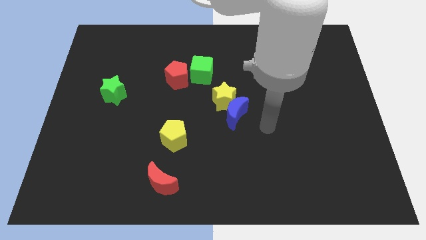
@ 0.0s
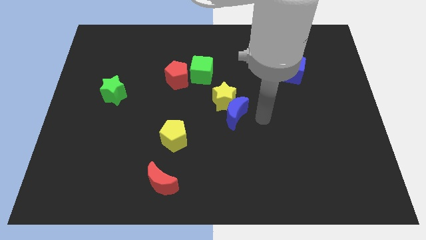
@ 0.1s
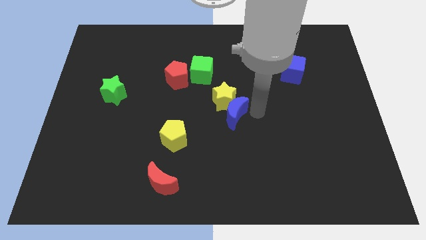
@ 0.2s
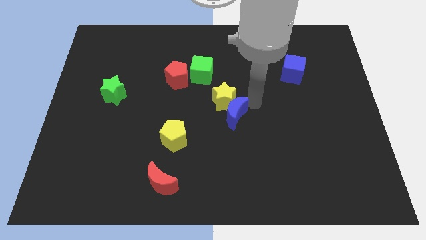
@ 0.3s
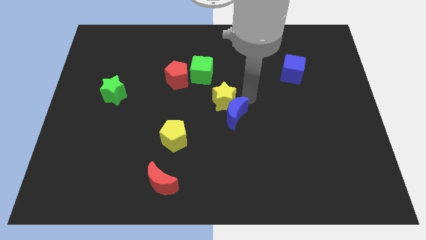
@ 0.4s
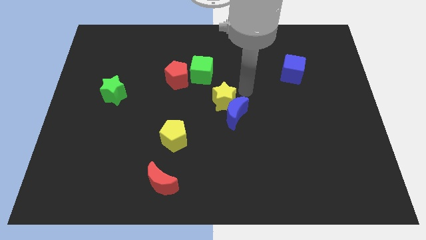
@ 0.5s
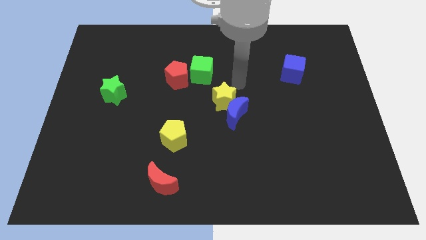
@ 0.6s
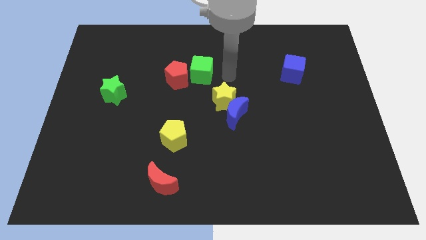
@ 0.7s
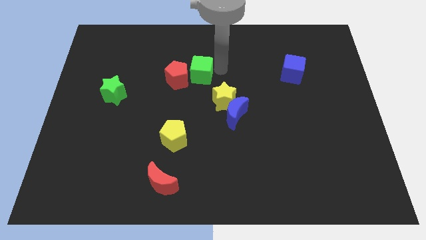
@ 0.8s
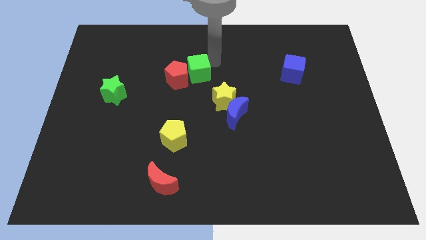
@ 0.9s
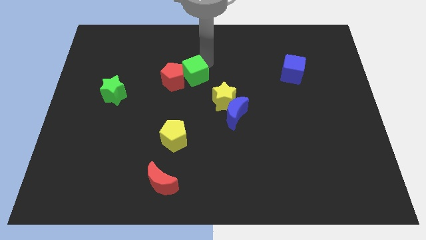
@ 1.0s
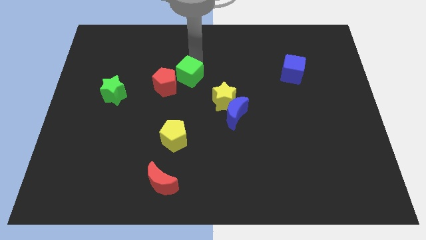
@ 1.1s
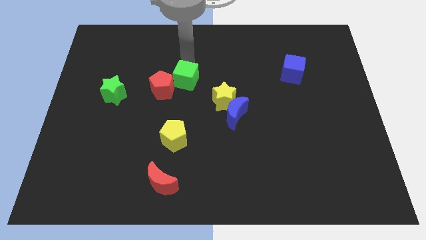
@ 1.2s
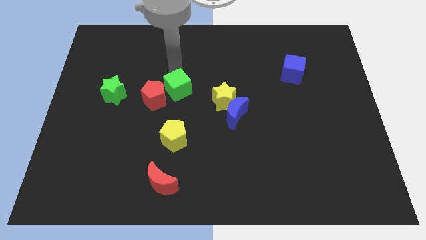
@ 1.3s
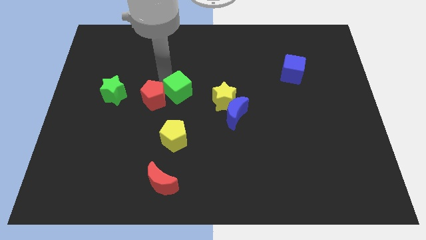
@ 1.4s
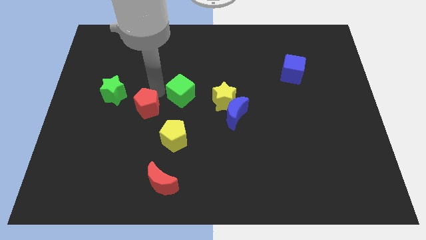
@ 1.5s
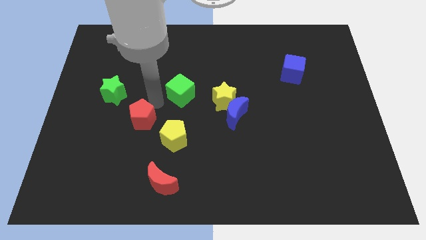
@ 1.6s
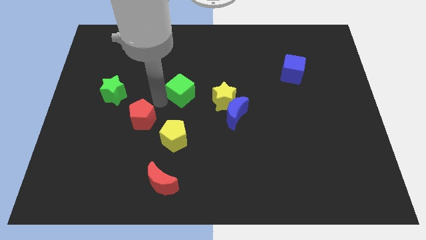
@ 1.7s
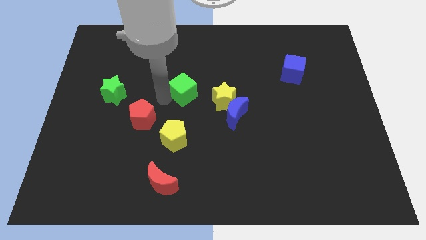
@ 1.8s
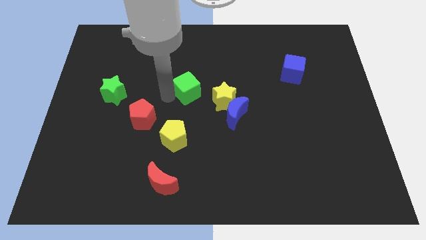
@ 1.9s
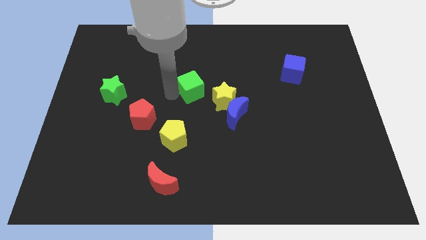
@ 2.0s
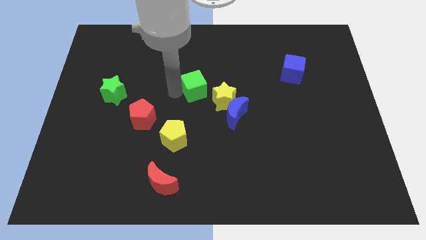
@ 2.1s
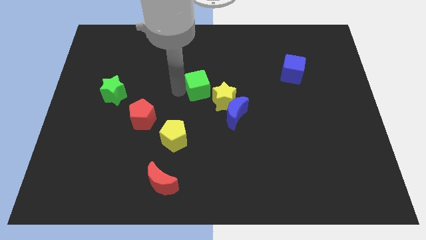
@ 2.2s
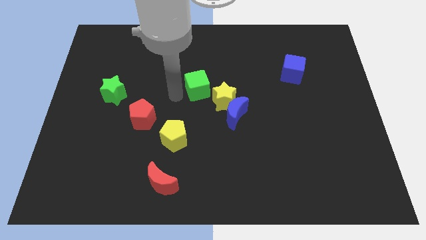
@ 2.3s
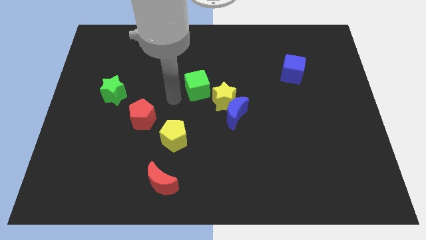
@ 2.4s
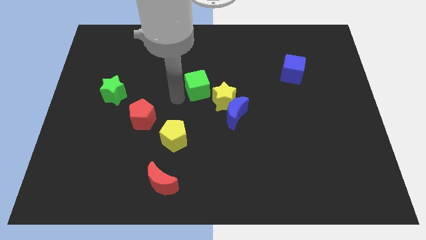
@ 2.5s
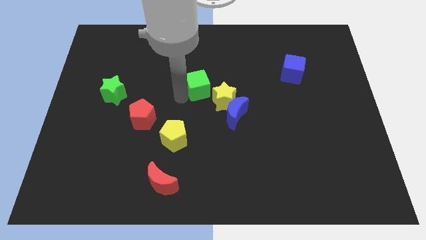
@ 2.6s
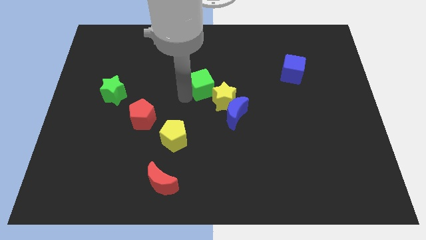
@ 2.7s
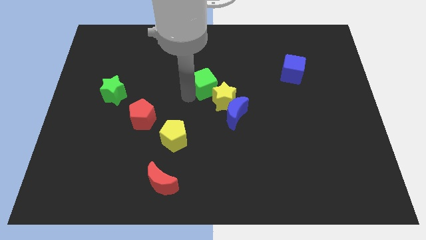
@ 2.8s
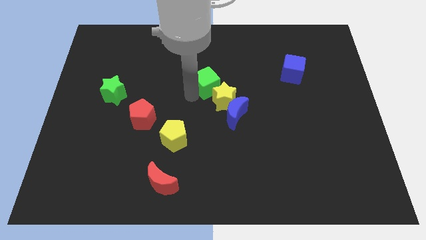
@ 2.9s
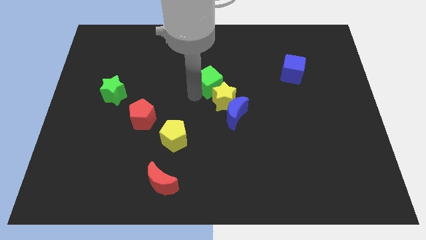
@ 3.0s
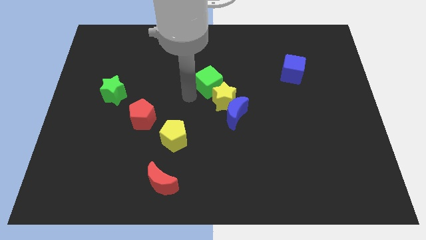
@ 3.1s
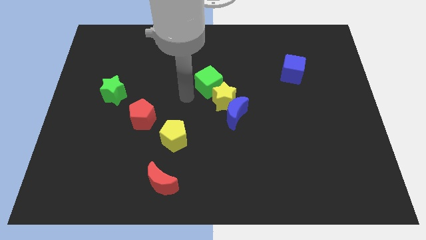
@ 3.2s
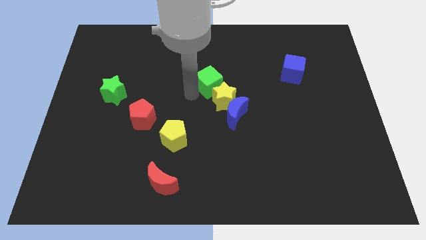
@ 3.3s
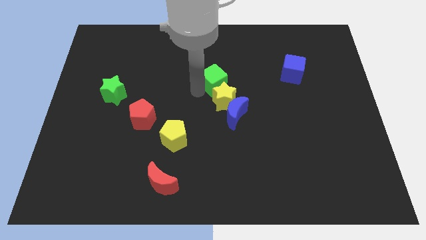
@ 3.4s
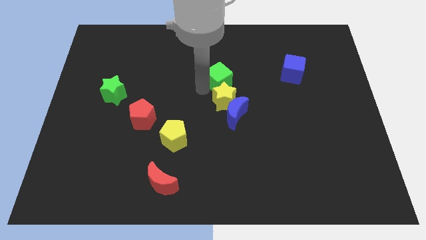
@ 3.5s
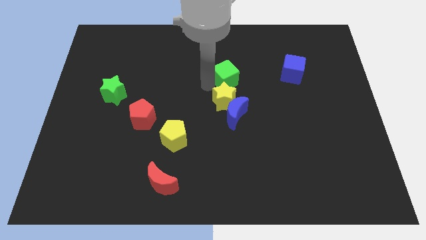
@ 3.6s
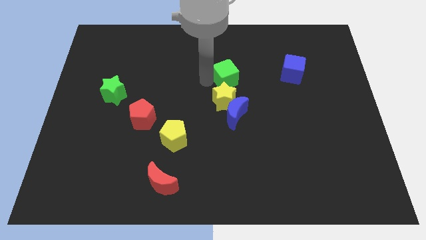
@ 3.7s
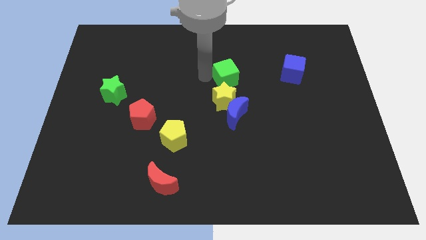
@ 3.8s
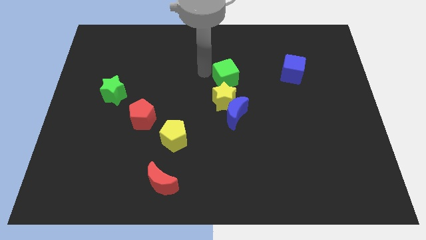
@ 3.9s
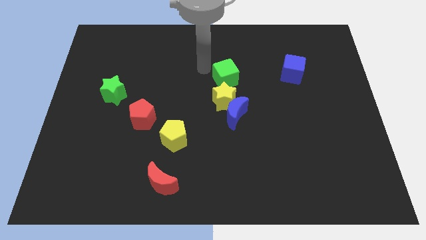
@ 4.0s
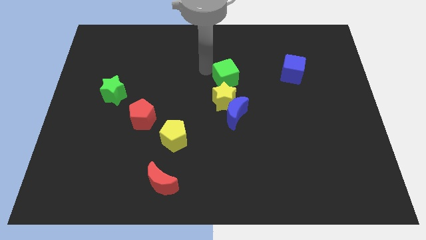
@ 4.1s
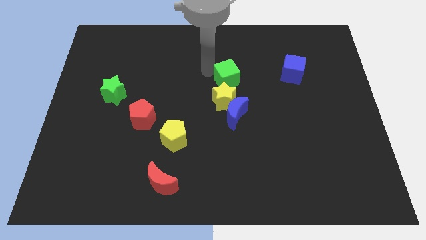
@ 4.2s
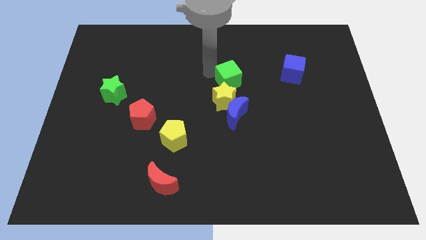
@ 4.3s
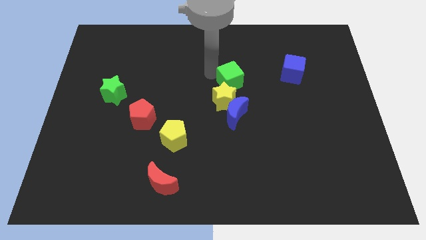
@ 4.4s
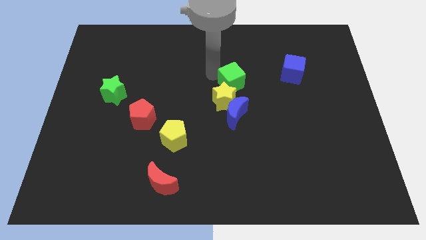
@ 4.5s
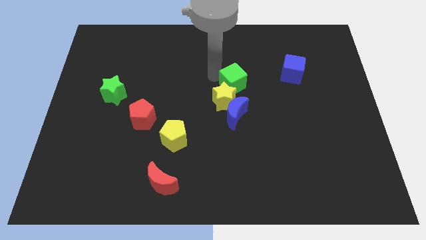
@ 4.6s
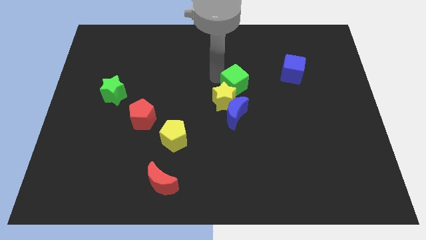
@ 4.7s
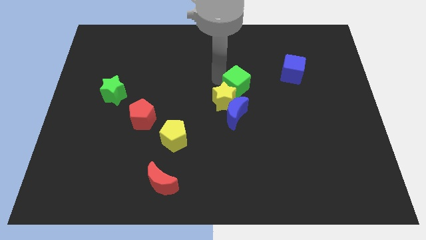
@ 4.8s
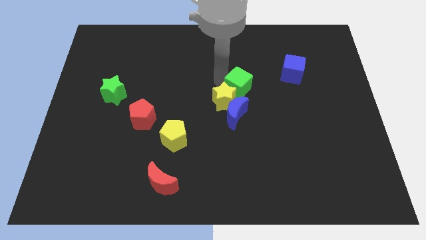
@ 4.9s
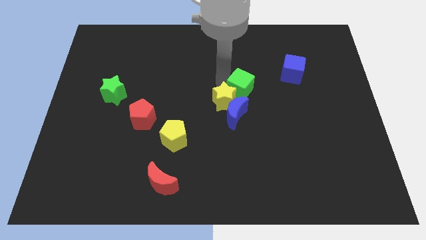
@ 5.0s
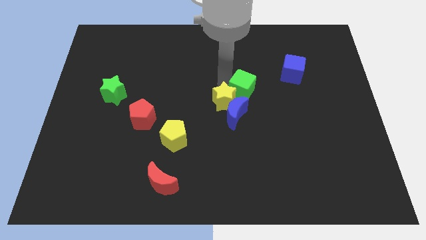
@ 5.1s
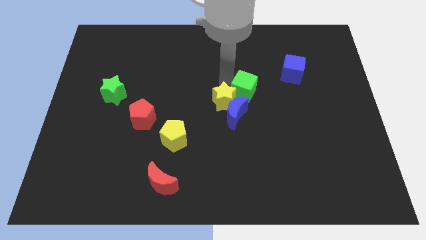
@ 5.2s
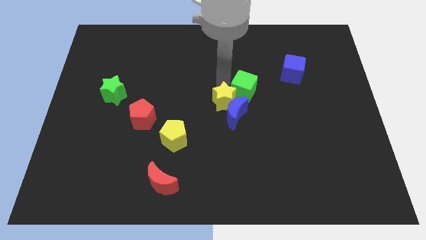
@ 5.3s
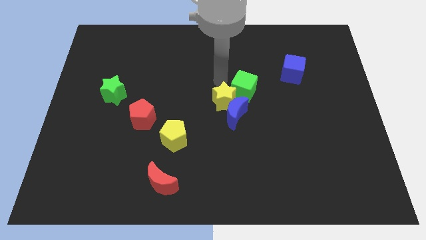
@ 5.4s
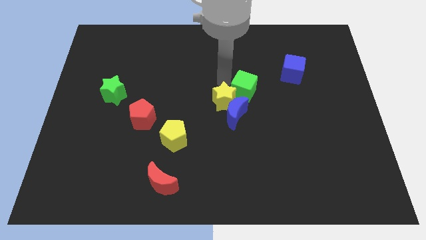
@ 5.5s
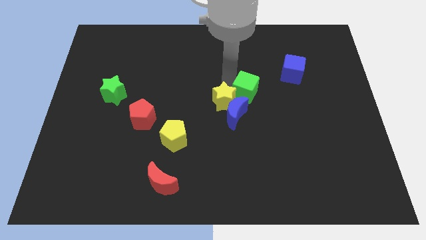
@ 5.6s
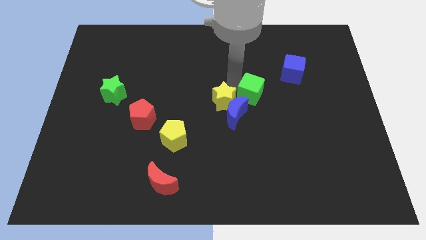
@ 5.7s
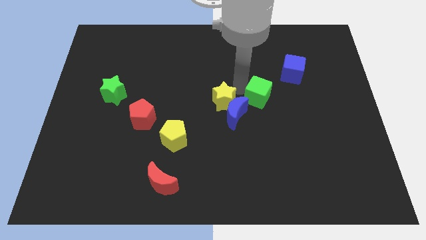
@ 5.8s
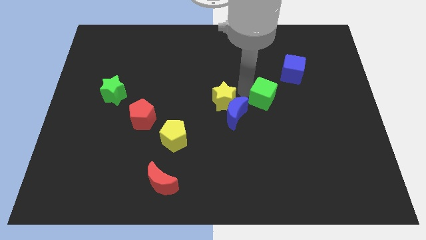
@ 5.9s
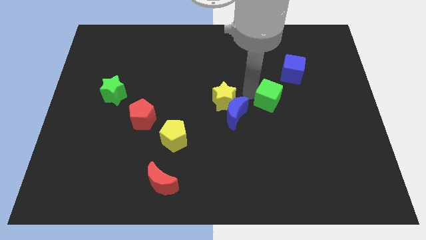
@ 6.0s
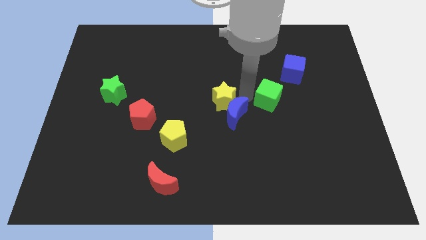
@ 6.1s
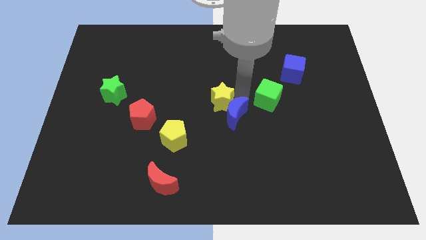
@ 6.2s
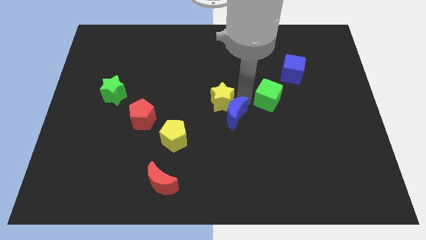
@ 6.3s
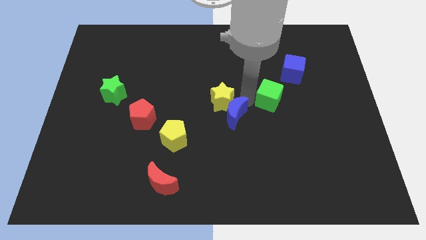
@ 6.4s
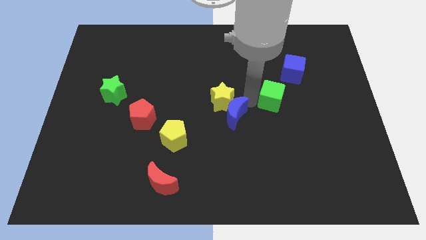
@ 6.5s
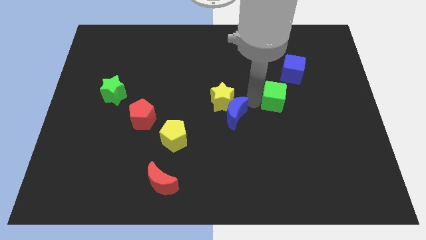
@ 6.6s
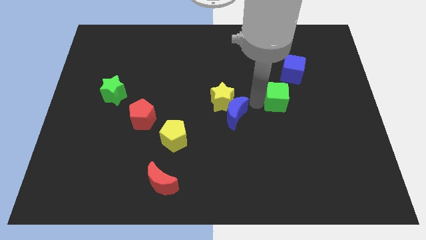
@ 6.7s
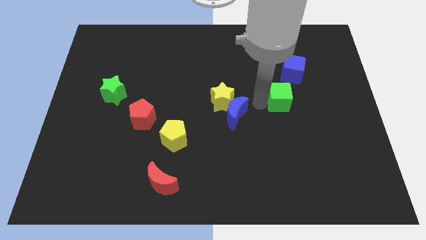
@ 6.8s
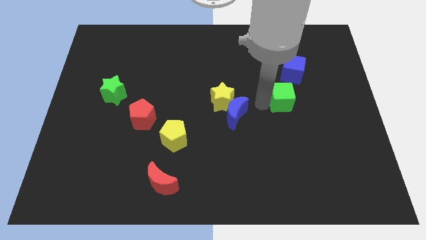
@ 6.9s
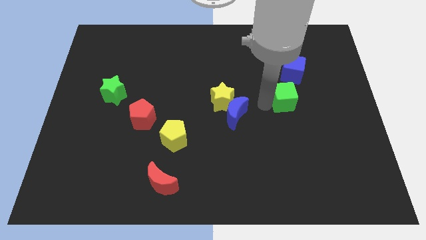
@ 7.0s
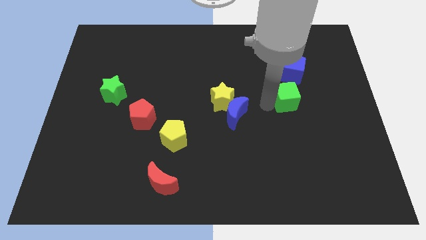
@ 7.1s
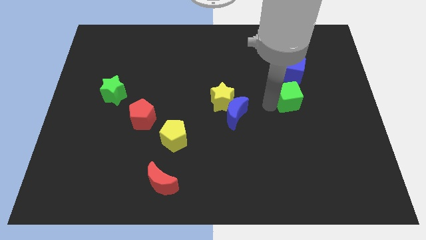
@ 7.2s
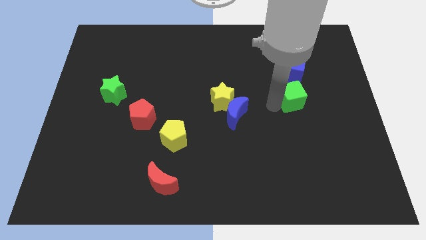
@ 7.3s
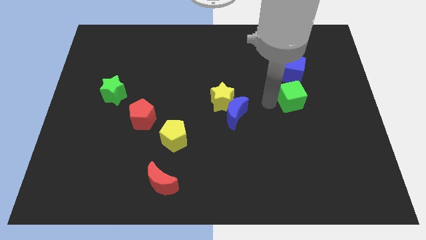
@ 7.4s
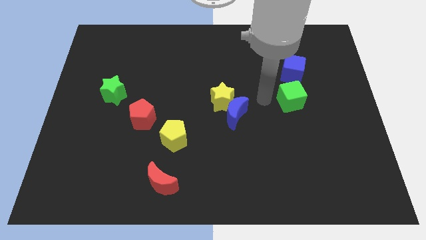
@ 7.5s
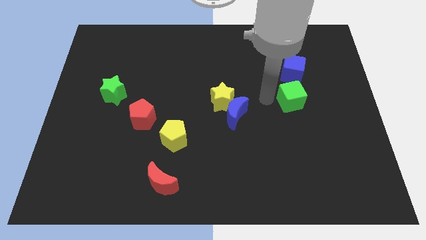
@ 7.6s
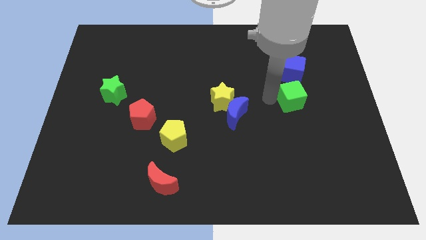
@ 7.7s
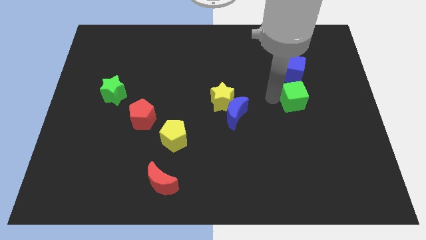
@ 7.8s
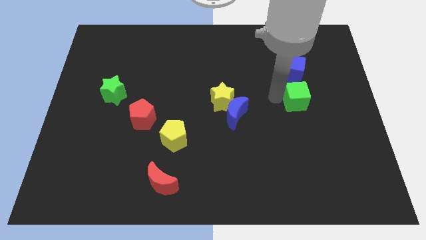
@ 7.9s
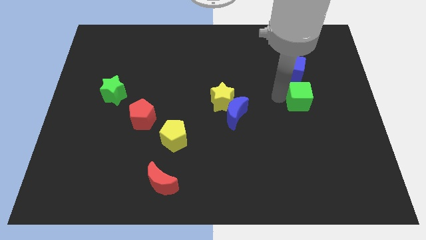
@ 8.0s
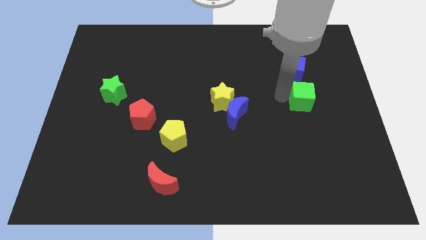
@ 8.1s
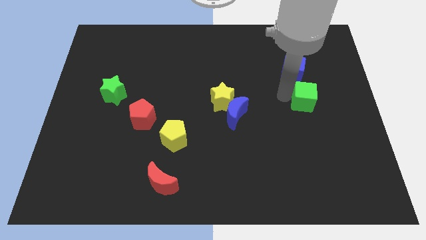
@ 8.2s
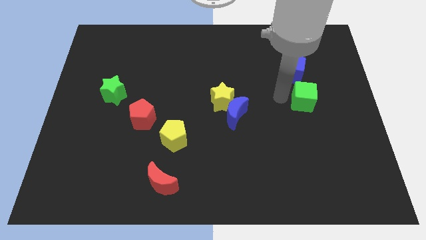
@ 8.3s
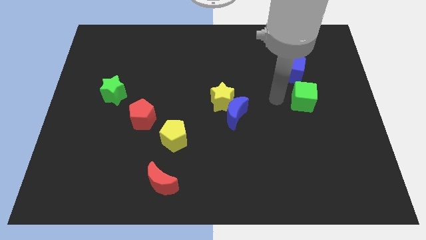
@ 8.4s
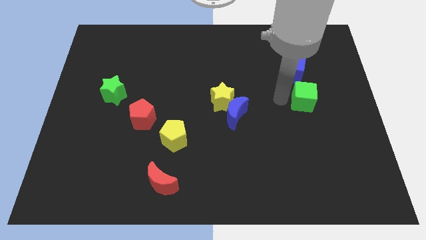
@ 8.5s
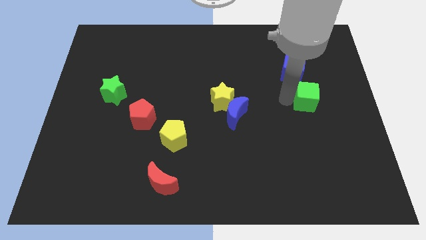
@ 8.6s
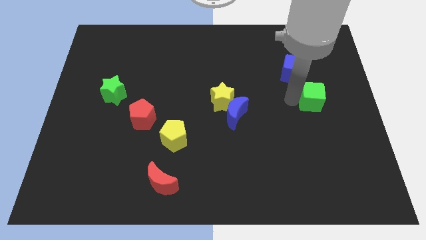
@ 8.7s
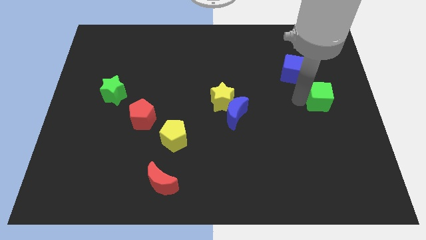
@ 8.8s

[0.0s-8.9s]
put the green cube to the center right
